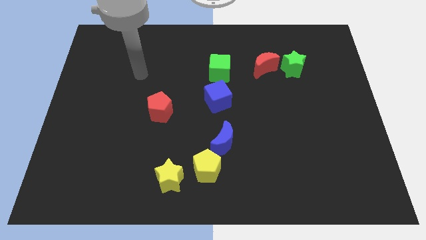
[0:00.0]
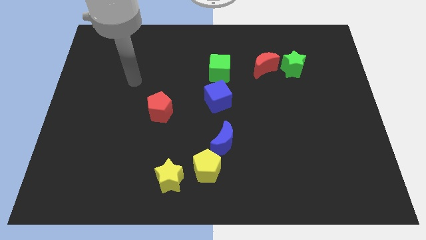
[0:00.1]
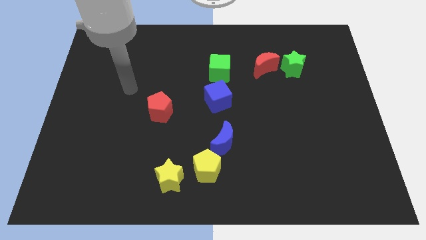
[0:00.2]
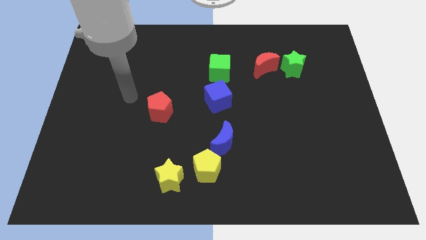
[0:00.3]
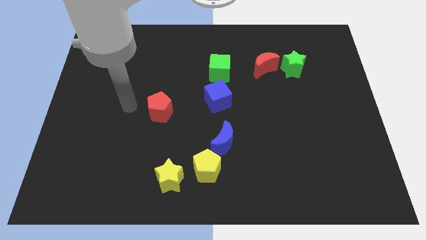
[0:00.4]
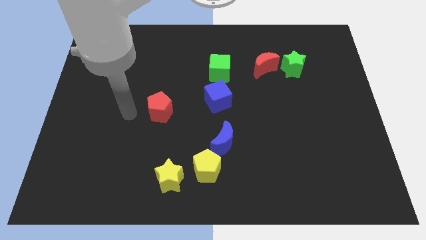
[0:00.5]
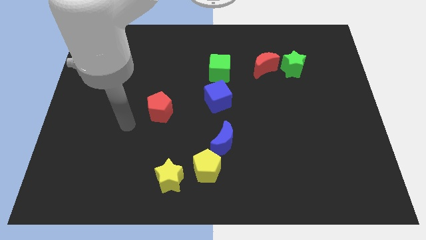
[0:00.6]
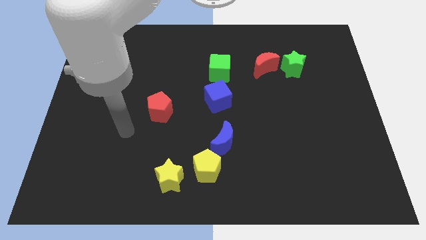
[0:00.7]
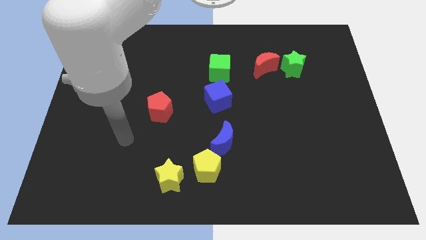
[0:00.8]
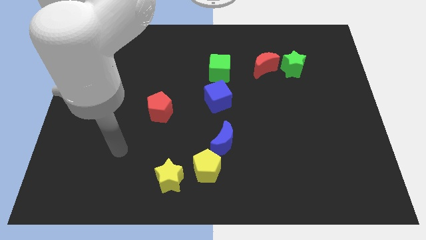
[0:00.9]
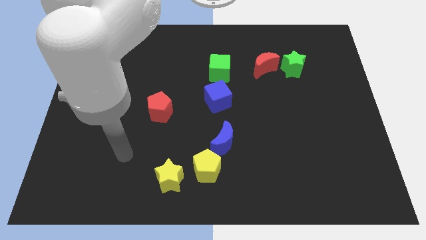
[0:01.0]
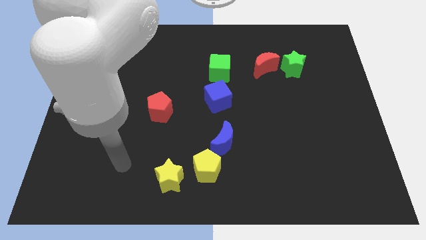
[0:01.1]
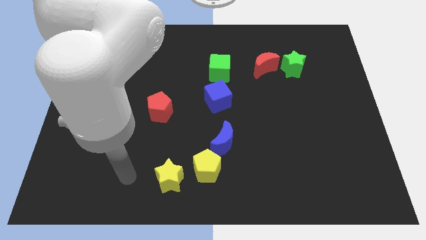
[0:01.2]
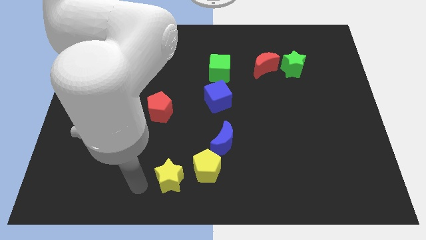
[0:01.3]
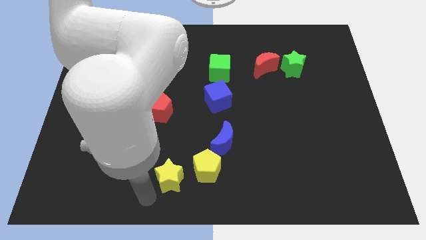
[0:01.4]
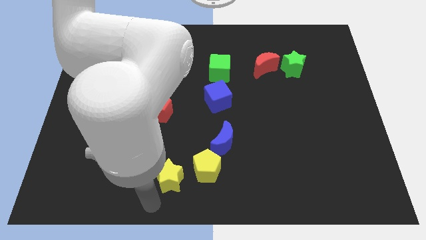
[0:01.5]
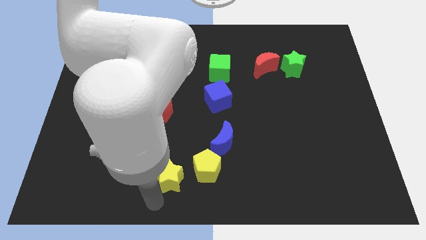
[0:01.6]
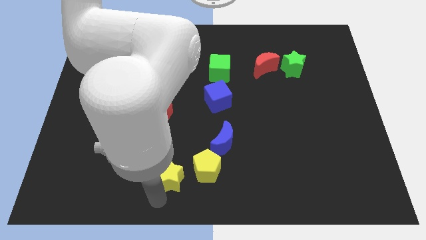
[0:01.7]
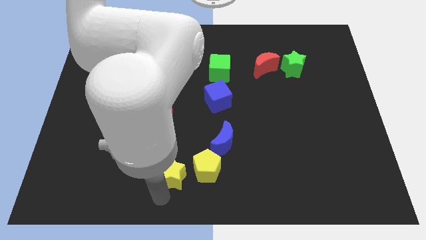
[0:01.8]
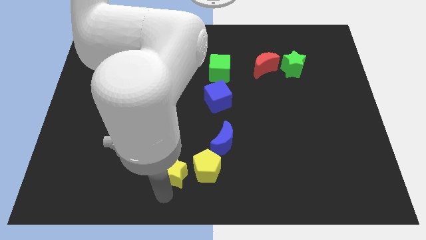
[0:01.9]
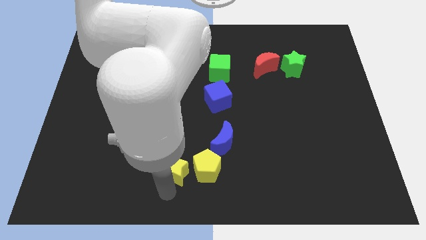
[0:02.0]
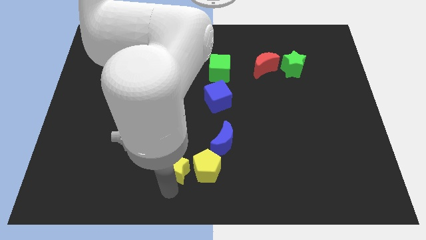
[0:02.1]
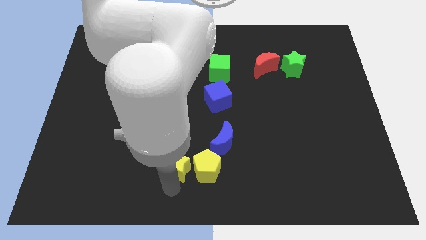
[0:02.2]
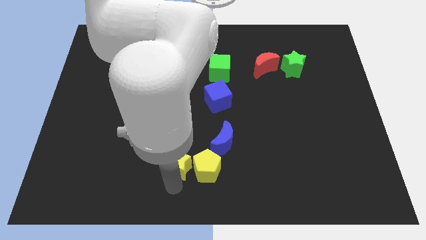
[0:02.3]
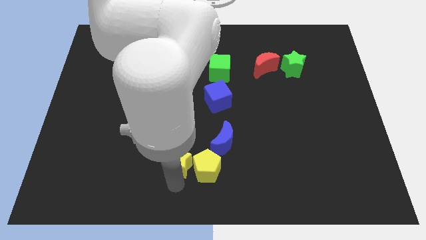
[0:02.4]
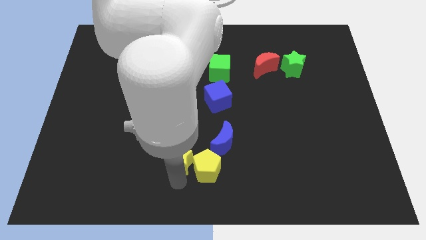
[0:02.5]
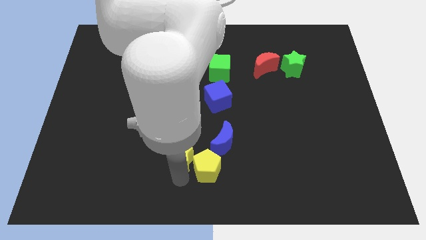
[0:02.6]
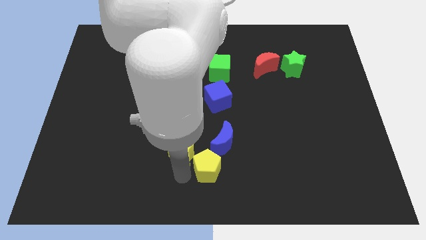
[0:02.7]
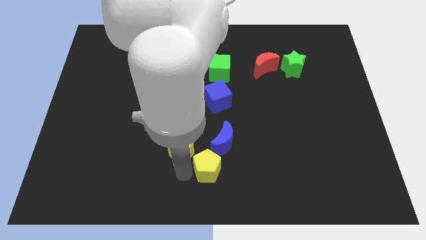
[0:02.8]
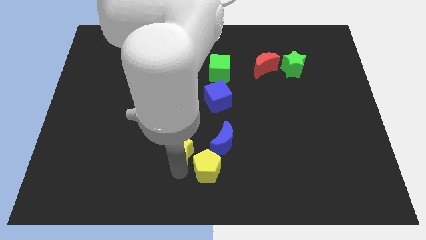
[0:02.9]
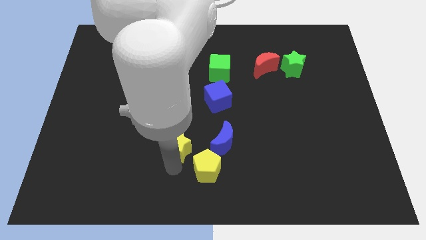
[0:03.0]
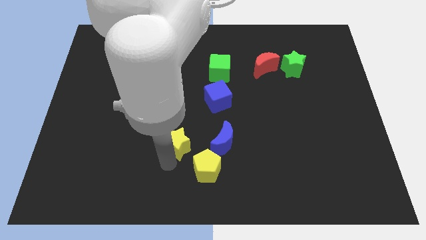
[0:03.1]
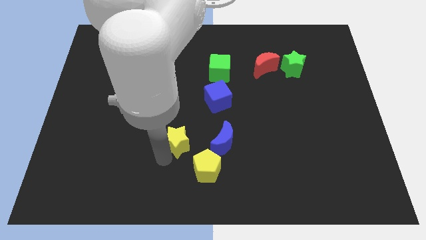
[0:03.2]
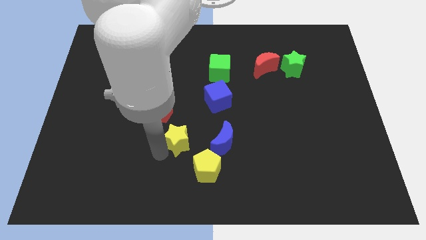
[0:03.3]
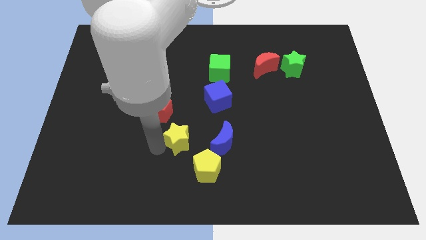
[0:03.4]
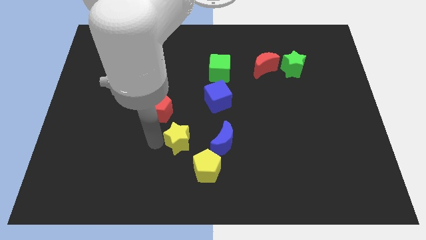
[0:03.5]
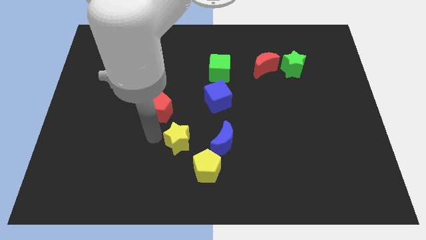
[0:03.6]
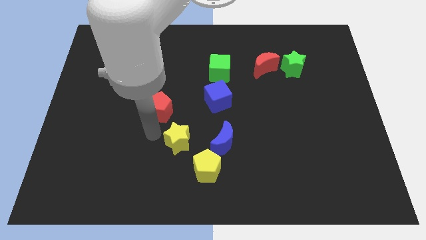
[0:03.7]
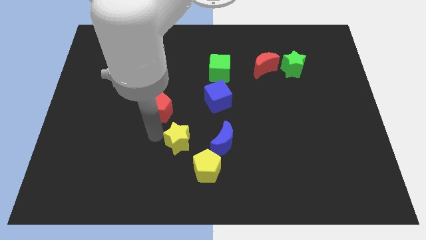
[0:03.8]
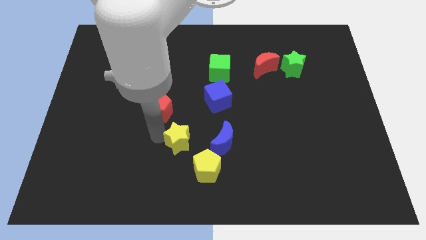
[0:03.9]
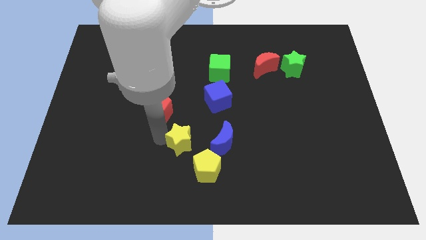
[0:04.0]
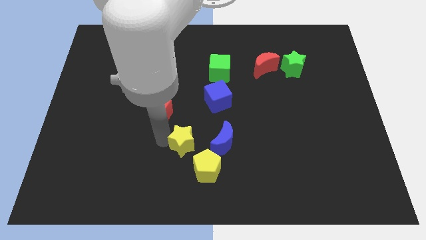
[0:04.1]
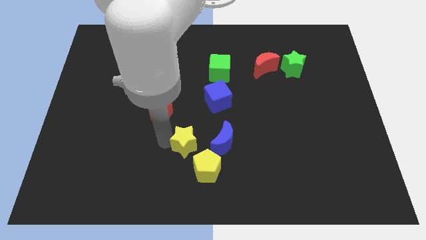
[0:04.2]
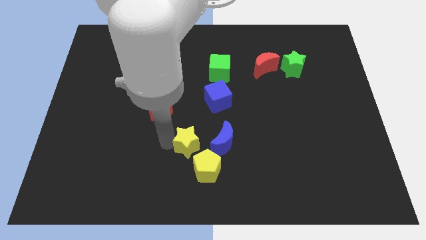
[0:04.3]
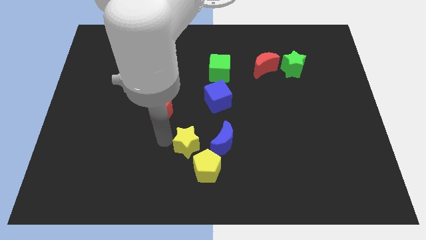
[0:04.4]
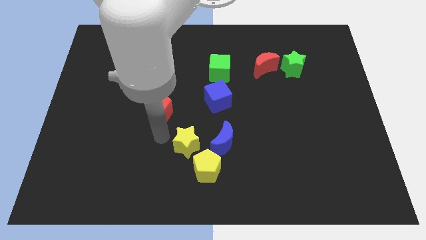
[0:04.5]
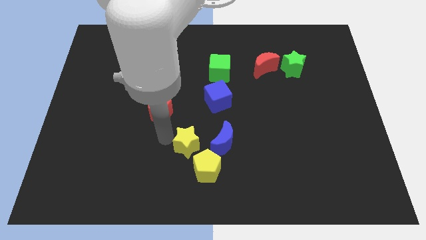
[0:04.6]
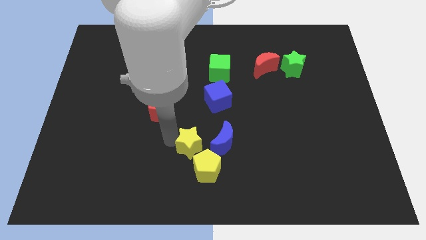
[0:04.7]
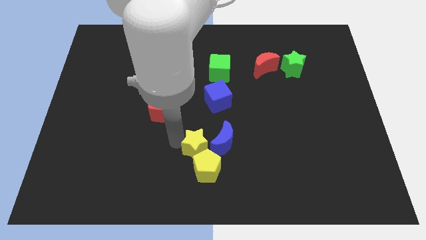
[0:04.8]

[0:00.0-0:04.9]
move the yellow star next to the blue moon

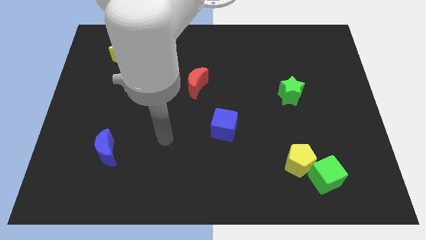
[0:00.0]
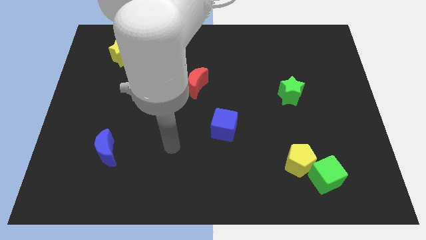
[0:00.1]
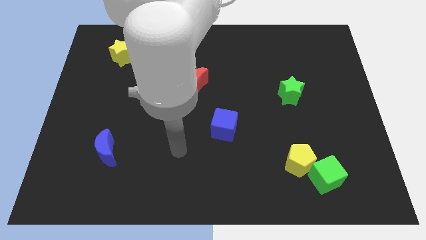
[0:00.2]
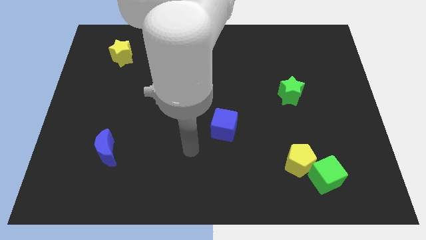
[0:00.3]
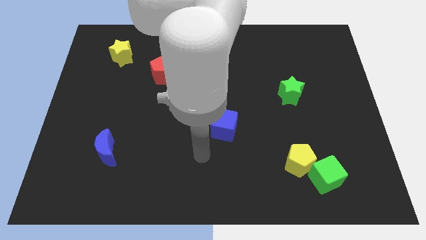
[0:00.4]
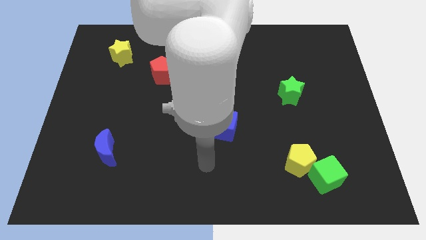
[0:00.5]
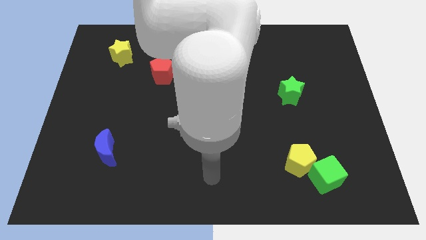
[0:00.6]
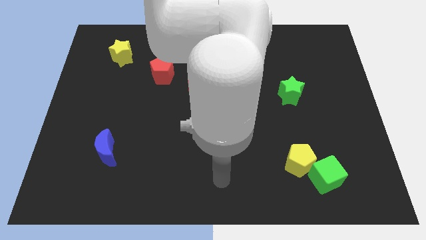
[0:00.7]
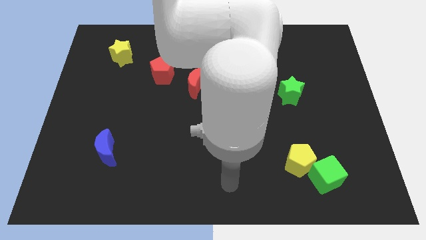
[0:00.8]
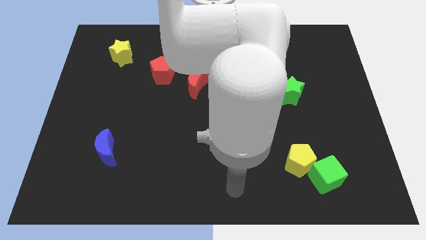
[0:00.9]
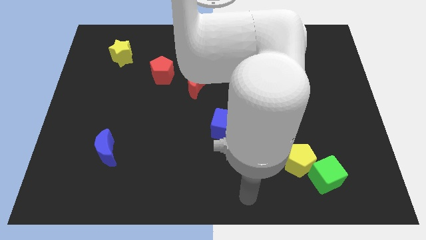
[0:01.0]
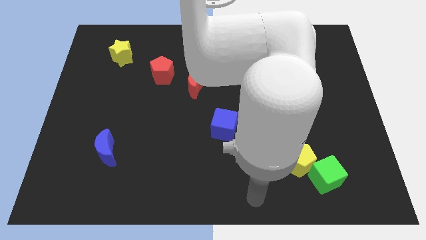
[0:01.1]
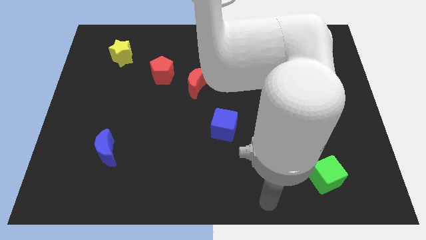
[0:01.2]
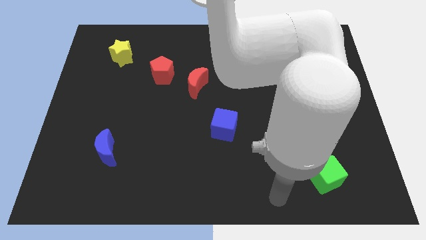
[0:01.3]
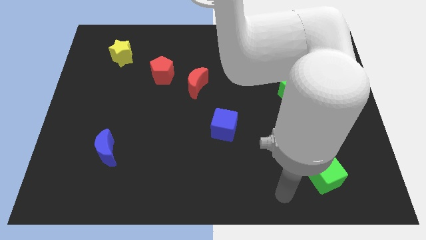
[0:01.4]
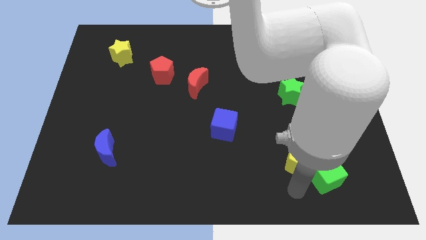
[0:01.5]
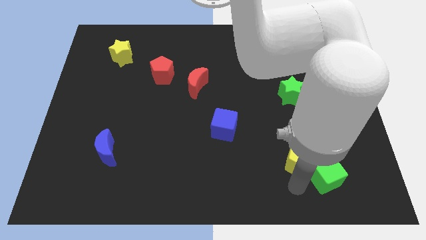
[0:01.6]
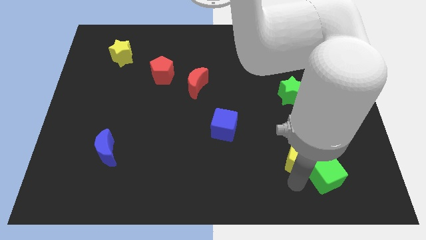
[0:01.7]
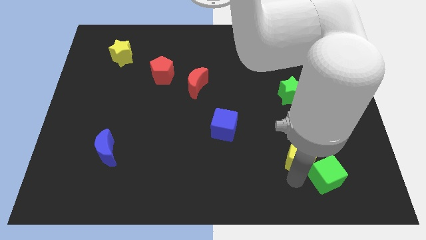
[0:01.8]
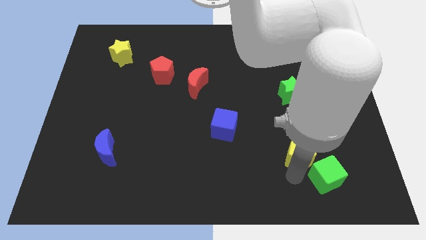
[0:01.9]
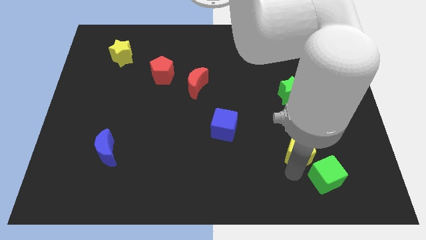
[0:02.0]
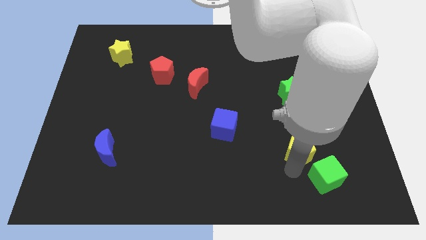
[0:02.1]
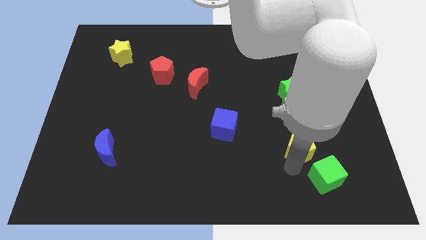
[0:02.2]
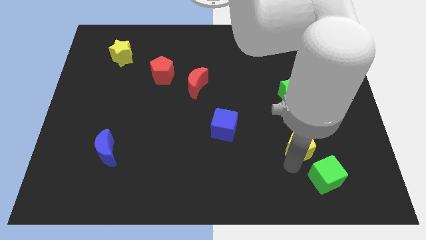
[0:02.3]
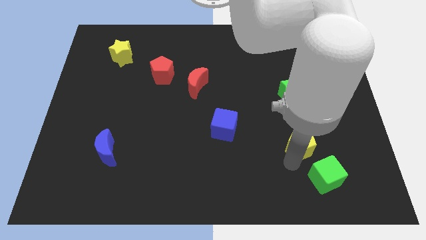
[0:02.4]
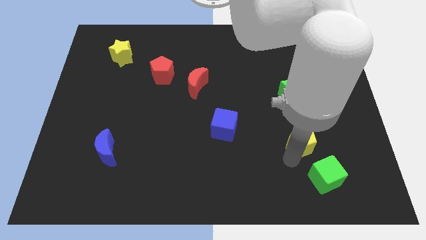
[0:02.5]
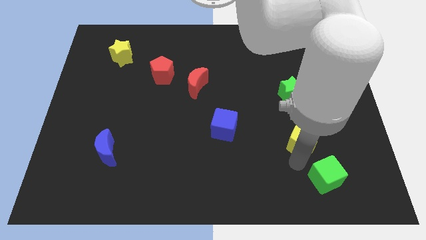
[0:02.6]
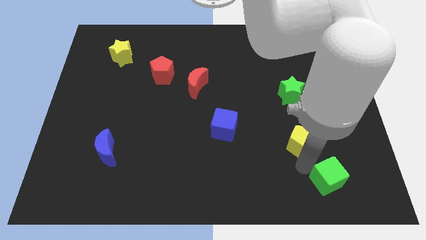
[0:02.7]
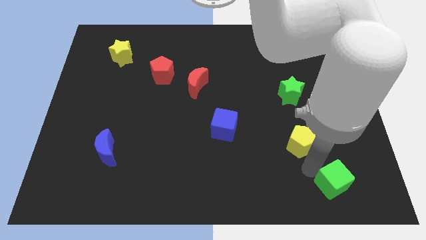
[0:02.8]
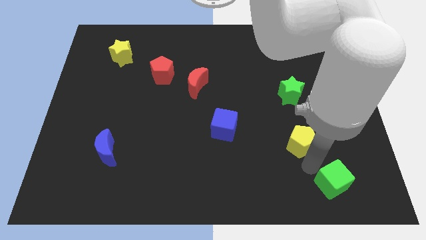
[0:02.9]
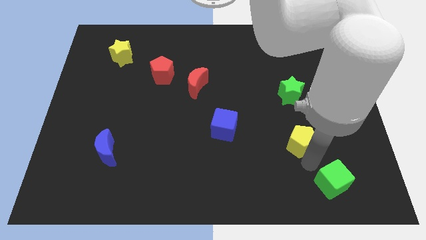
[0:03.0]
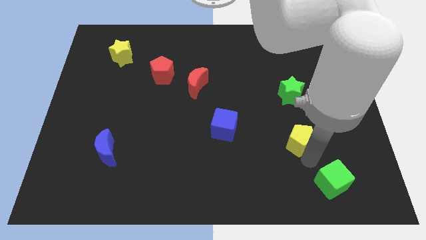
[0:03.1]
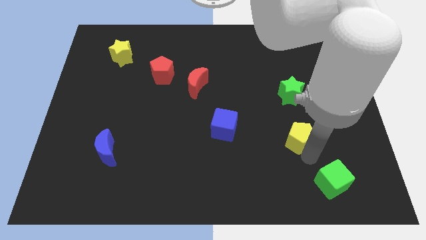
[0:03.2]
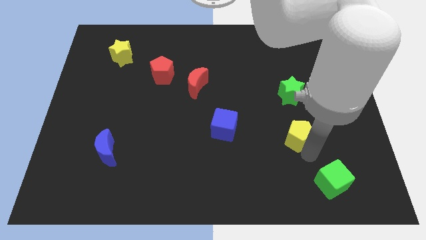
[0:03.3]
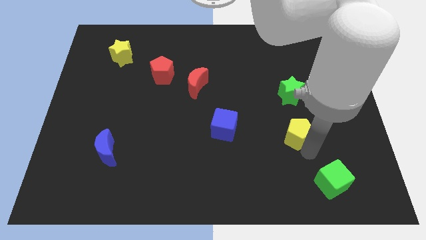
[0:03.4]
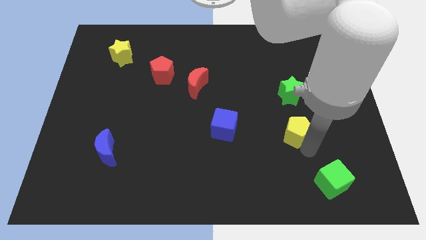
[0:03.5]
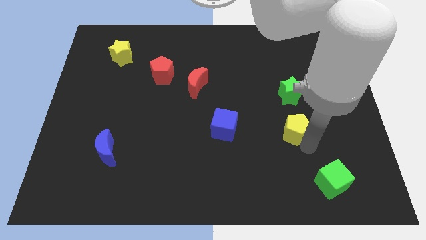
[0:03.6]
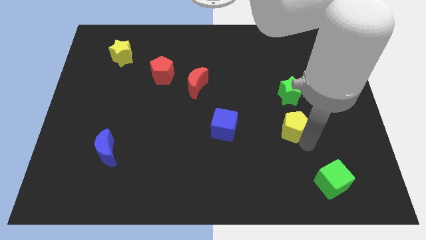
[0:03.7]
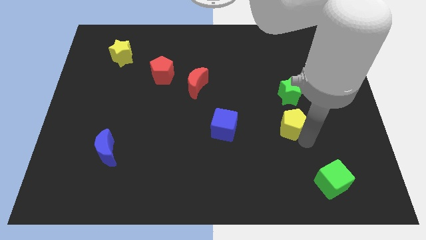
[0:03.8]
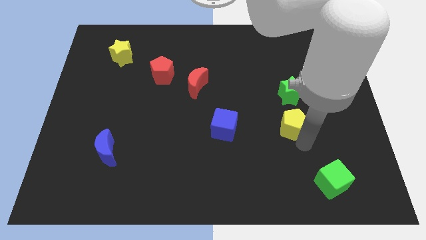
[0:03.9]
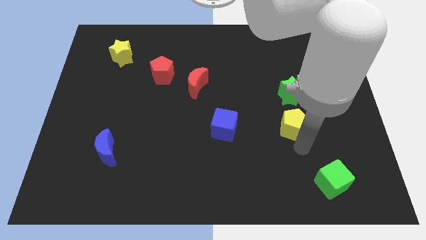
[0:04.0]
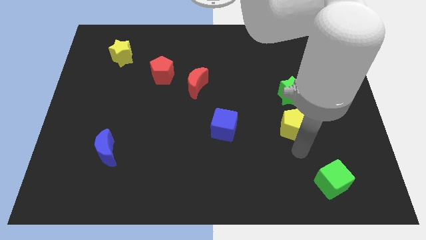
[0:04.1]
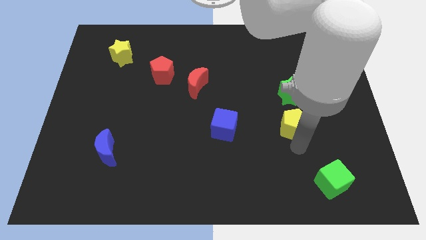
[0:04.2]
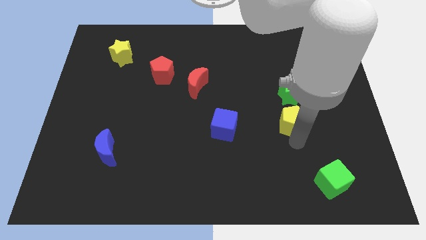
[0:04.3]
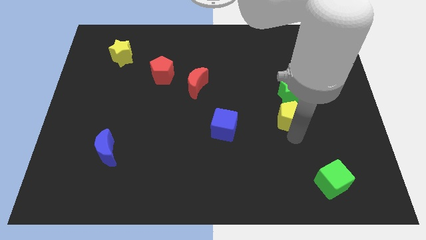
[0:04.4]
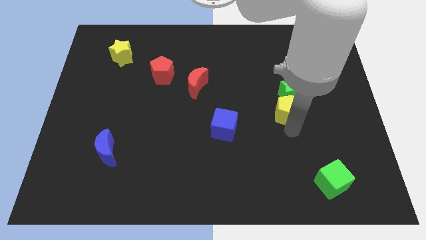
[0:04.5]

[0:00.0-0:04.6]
slide the yellow pentagon towards the green star
